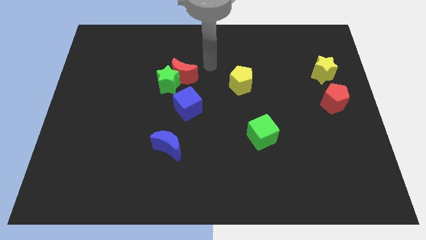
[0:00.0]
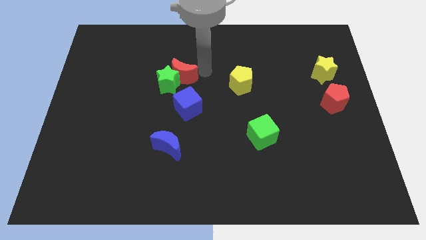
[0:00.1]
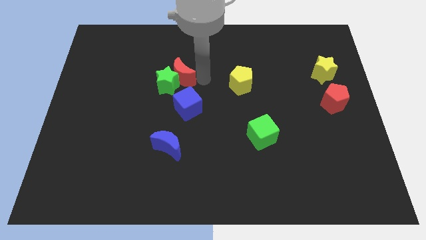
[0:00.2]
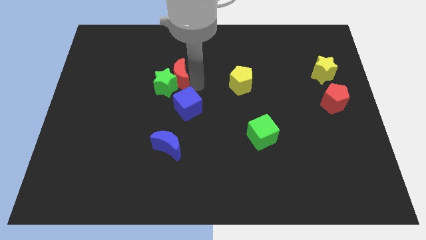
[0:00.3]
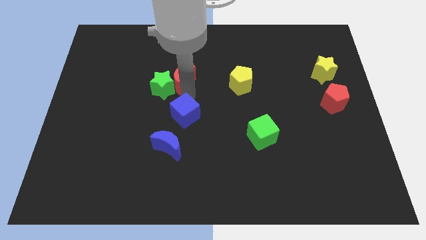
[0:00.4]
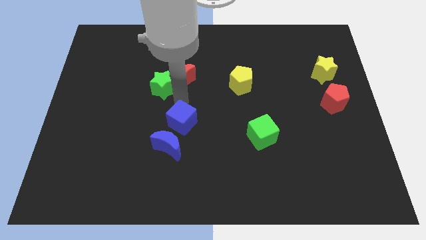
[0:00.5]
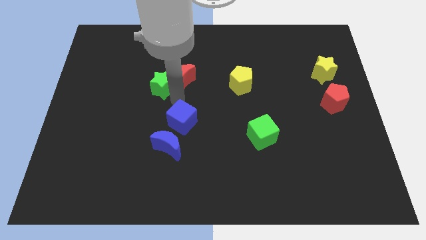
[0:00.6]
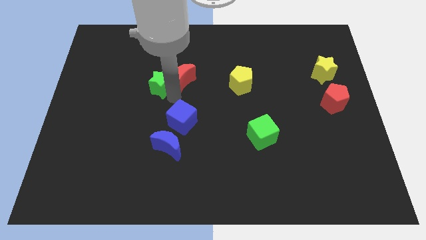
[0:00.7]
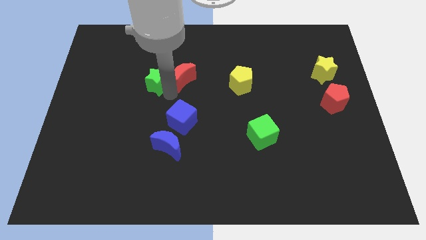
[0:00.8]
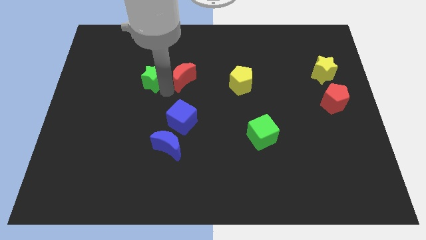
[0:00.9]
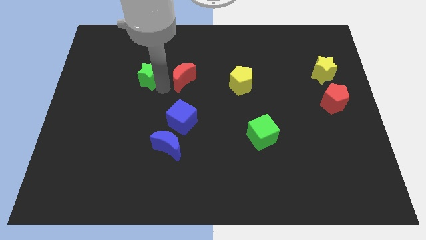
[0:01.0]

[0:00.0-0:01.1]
move the green star away from the red moon and blue cube

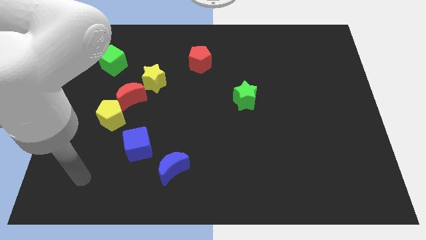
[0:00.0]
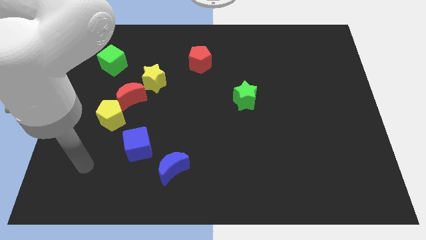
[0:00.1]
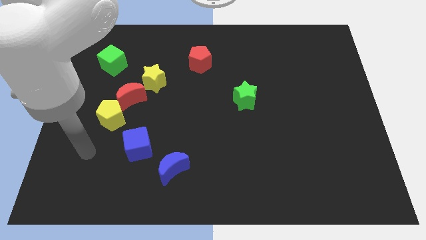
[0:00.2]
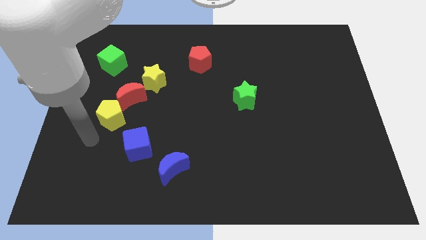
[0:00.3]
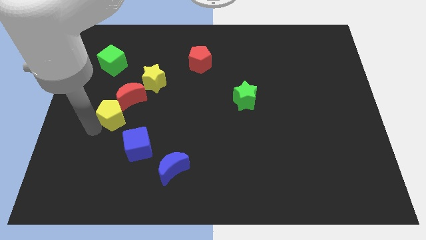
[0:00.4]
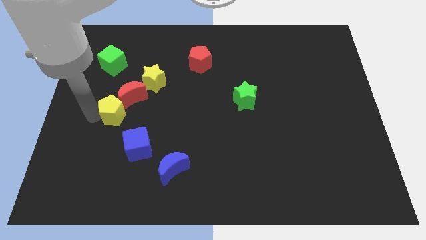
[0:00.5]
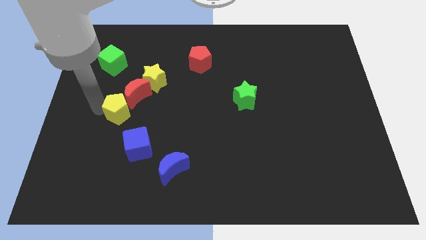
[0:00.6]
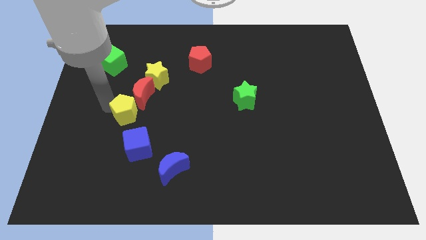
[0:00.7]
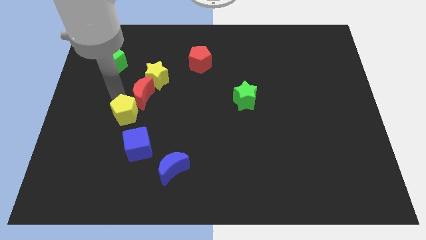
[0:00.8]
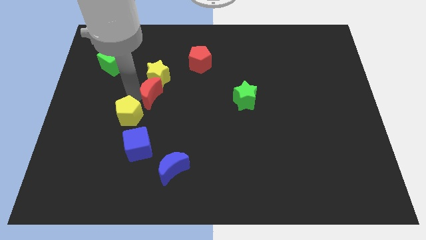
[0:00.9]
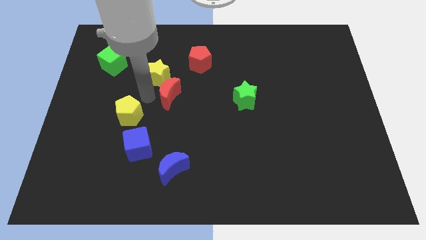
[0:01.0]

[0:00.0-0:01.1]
separate the yellow pentagon from the red moon

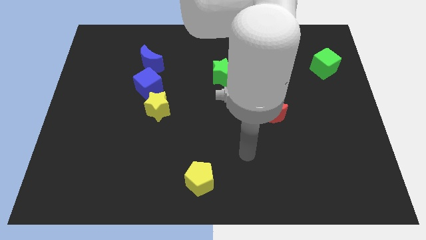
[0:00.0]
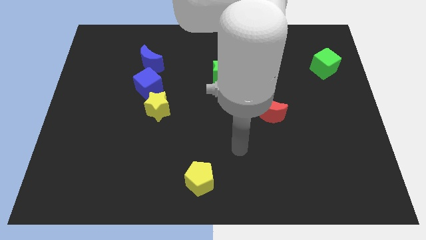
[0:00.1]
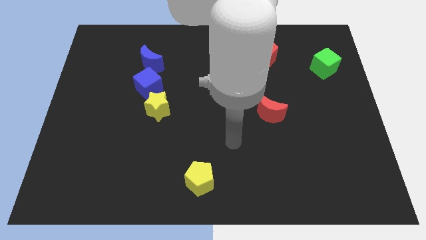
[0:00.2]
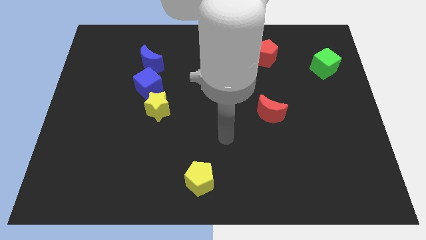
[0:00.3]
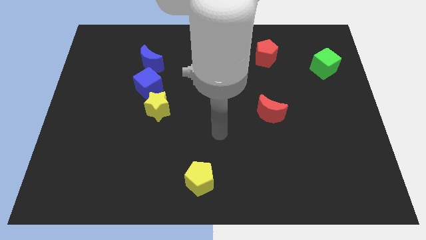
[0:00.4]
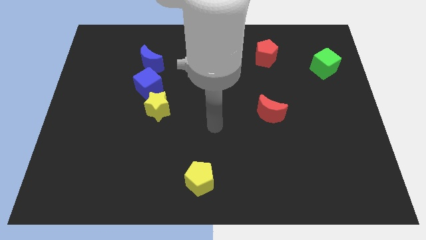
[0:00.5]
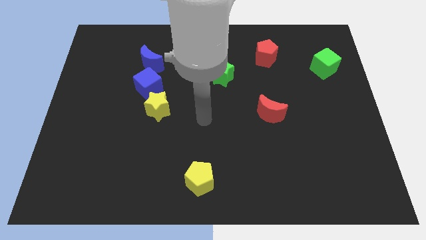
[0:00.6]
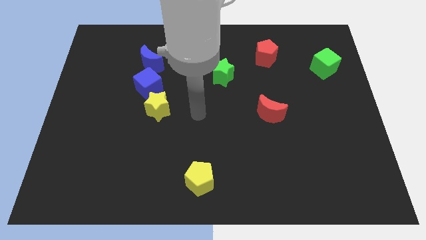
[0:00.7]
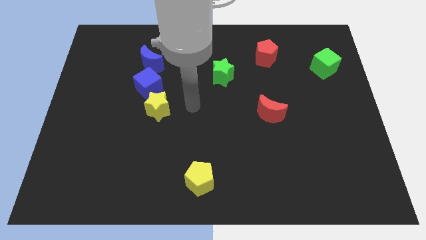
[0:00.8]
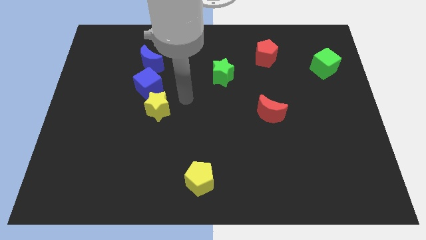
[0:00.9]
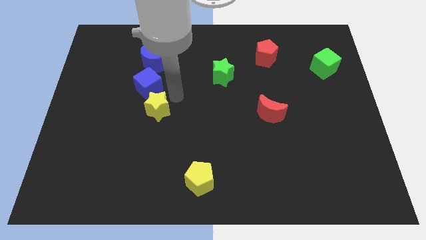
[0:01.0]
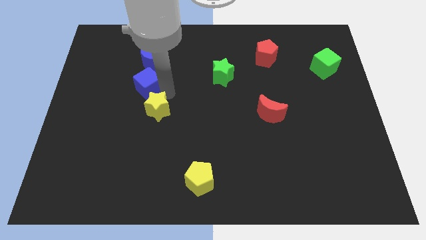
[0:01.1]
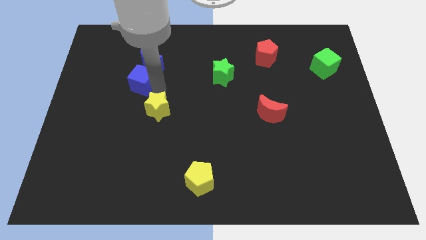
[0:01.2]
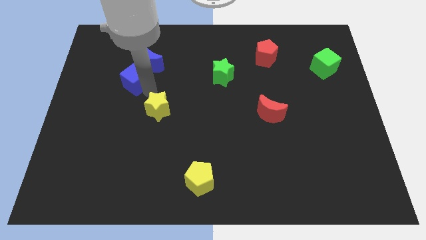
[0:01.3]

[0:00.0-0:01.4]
move the yellow star away from the blue cube

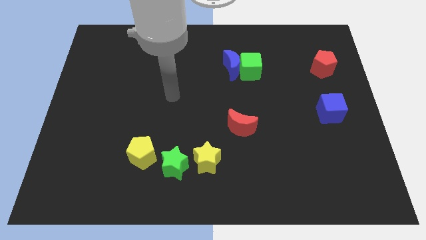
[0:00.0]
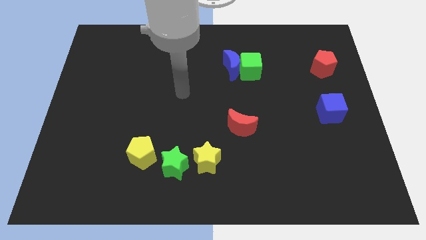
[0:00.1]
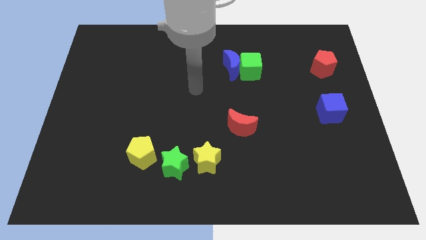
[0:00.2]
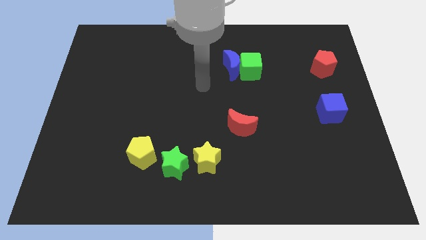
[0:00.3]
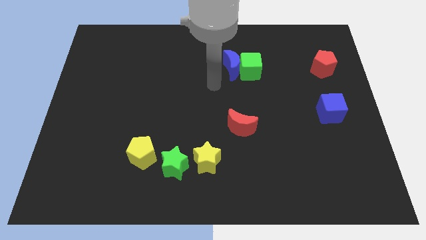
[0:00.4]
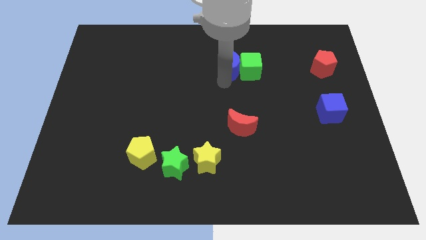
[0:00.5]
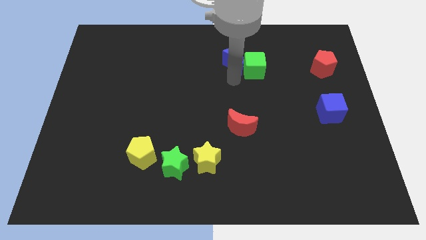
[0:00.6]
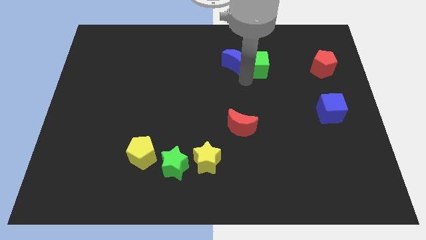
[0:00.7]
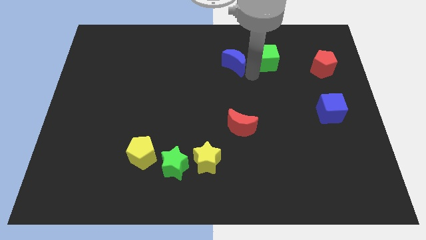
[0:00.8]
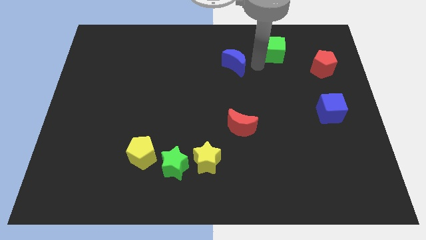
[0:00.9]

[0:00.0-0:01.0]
pull the blue moon apart from the green cube

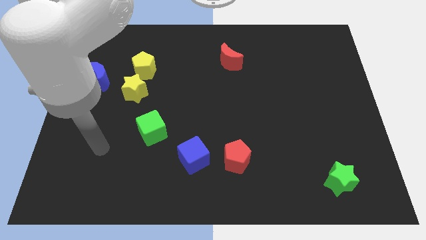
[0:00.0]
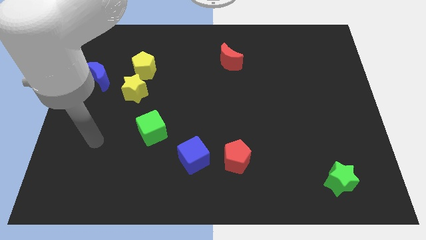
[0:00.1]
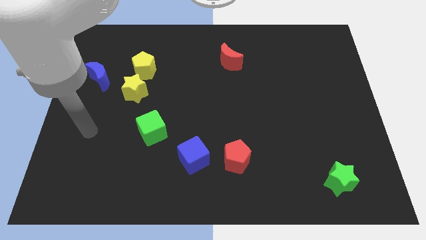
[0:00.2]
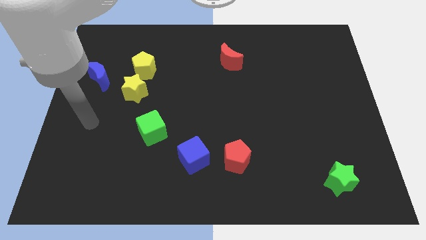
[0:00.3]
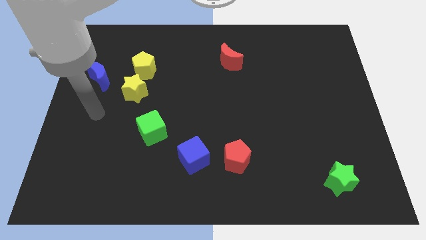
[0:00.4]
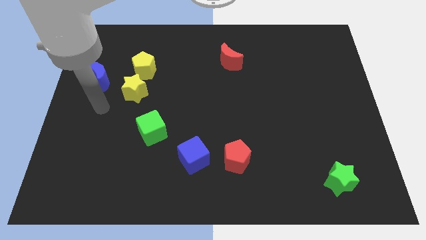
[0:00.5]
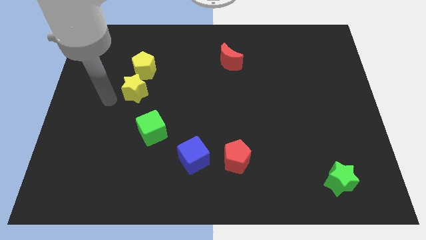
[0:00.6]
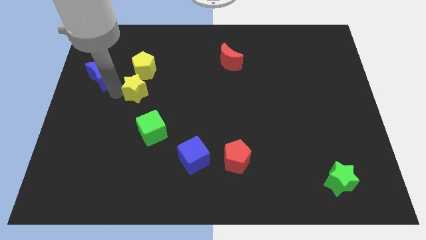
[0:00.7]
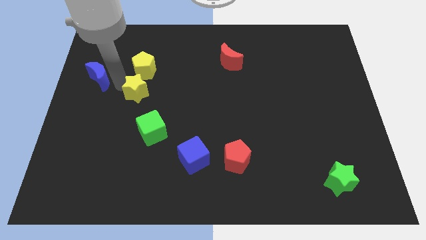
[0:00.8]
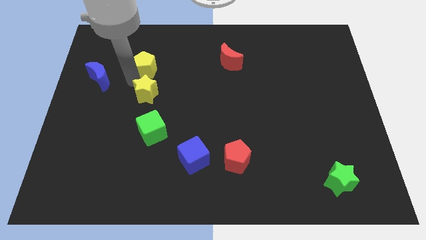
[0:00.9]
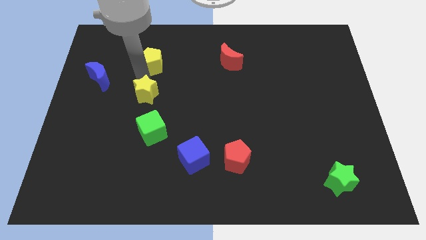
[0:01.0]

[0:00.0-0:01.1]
pull the yellow star apart from the yellow pentagon

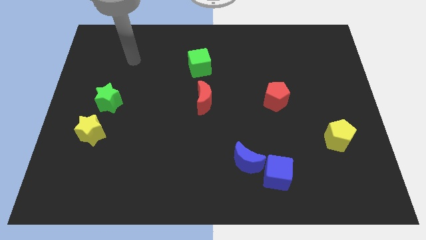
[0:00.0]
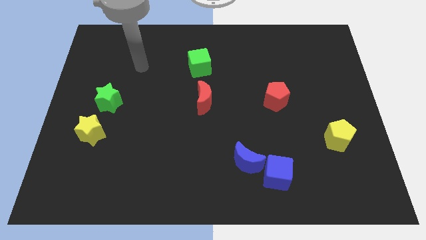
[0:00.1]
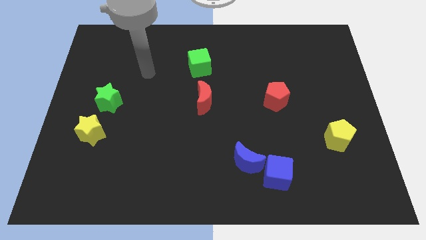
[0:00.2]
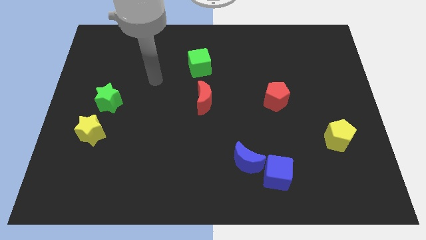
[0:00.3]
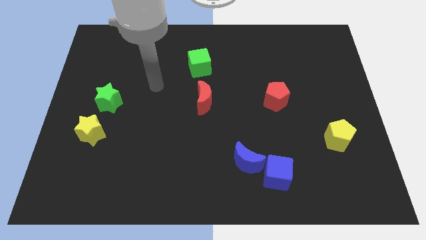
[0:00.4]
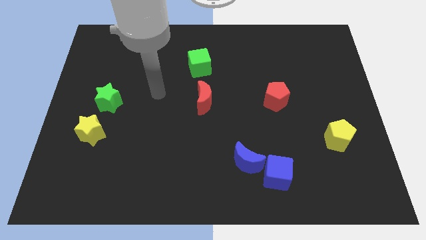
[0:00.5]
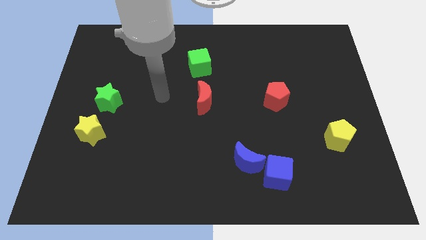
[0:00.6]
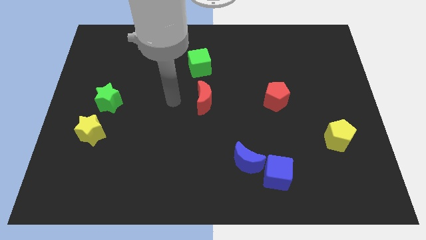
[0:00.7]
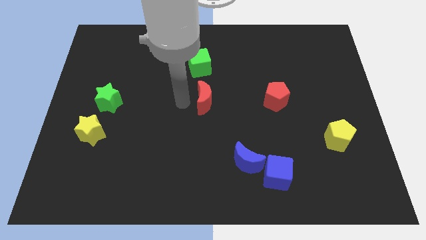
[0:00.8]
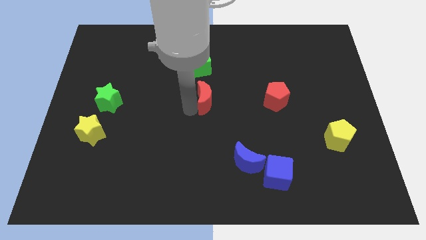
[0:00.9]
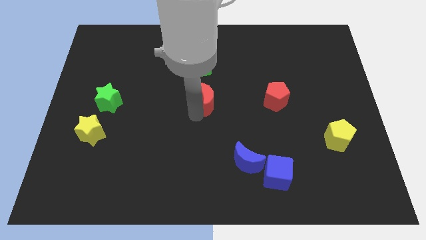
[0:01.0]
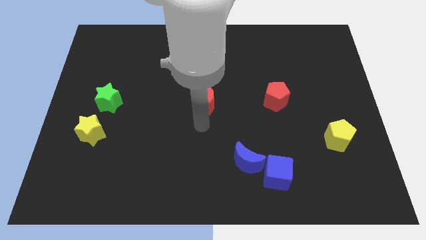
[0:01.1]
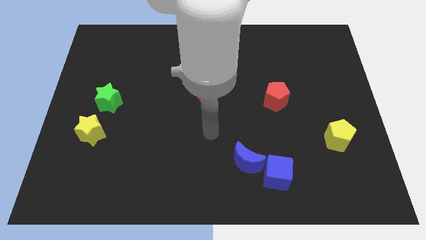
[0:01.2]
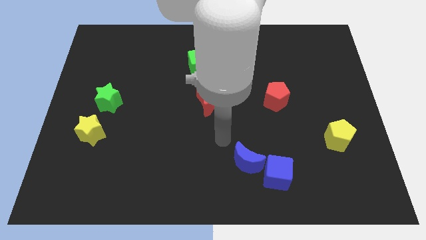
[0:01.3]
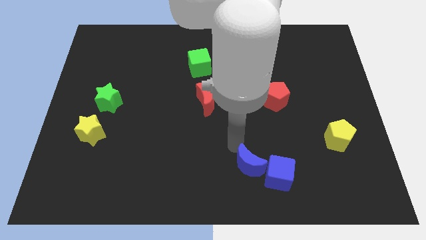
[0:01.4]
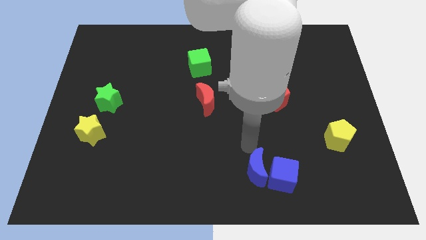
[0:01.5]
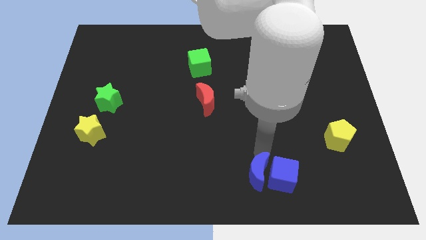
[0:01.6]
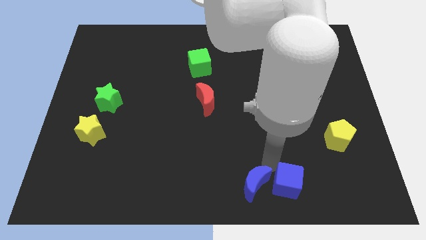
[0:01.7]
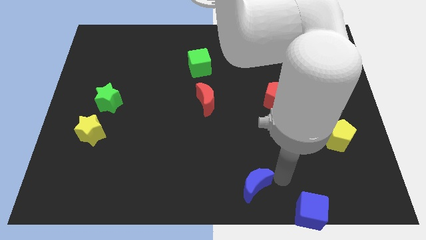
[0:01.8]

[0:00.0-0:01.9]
move the blue moon away from the blue cube

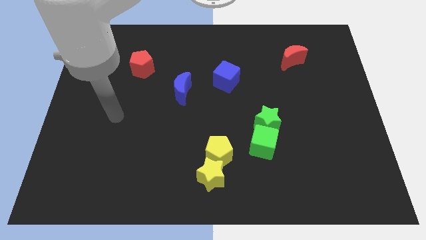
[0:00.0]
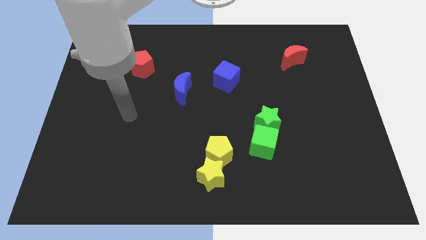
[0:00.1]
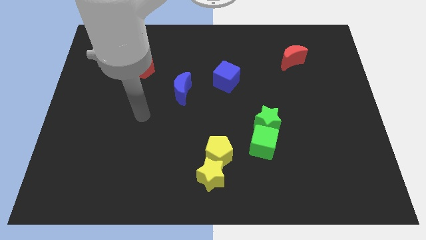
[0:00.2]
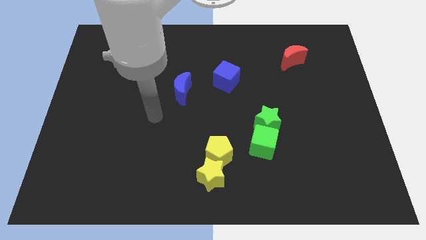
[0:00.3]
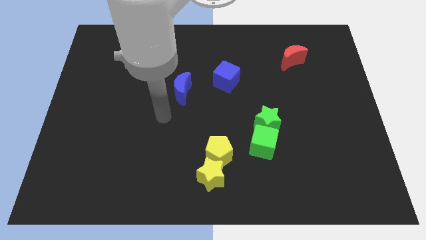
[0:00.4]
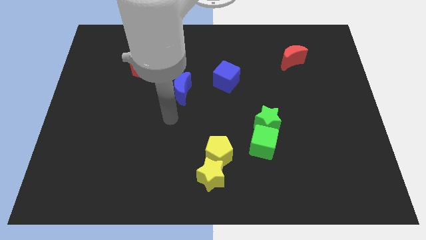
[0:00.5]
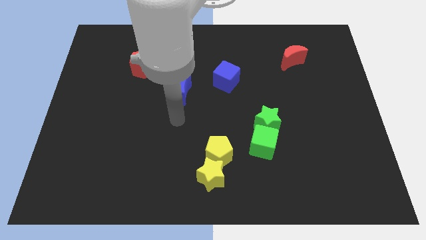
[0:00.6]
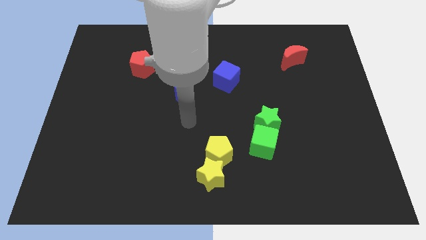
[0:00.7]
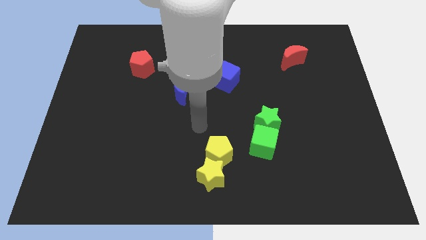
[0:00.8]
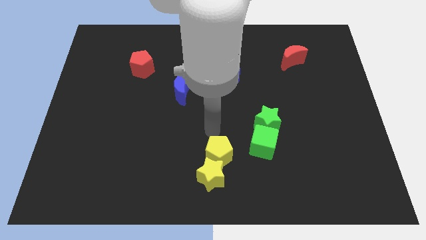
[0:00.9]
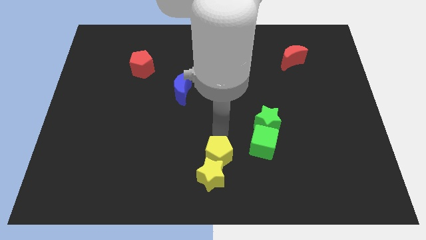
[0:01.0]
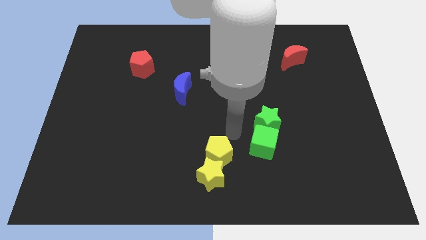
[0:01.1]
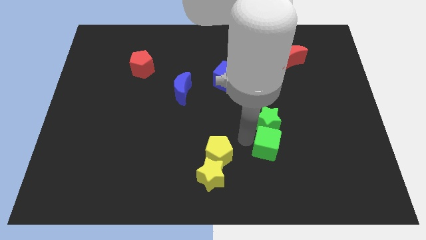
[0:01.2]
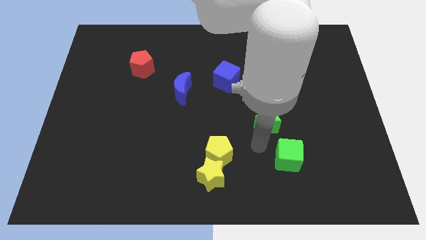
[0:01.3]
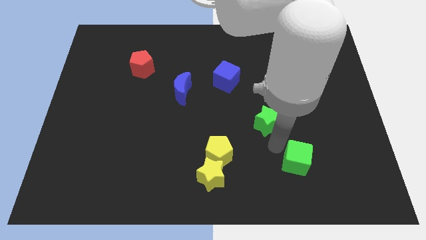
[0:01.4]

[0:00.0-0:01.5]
pull the green star apart from the green cube

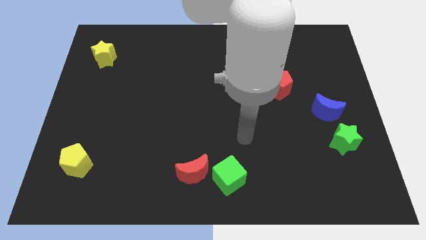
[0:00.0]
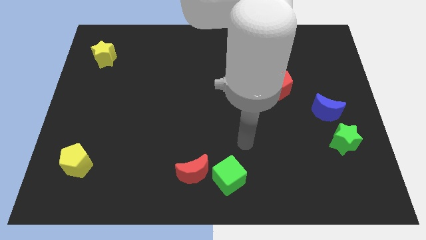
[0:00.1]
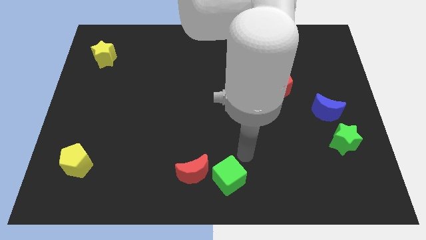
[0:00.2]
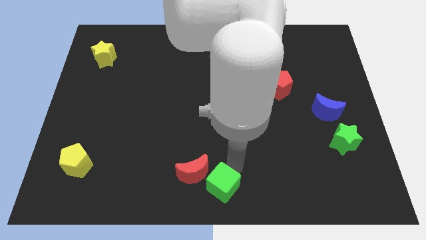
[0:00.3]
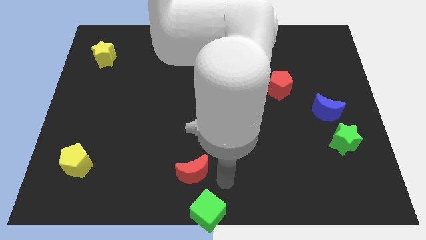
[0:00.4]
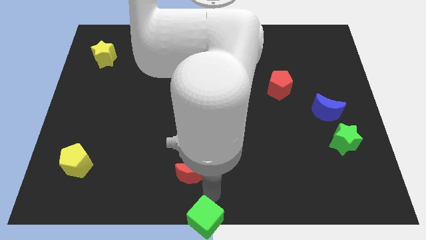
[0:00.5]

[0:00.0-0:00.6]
separate the red moon from the green cube
